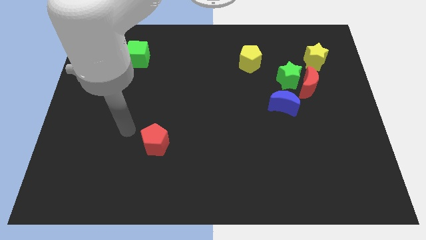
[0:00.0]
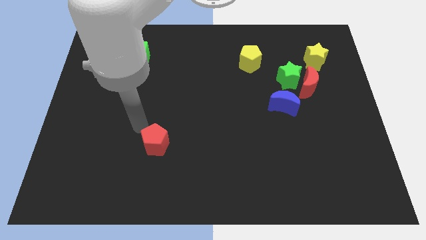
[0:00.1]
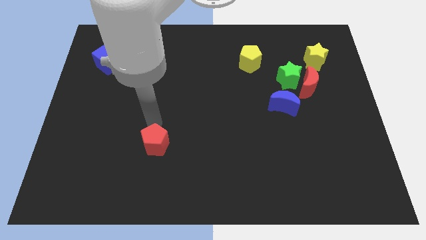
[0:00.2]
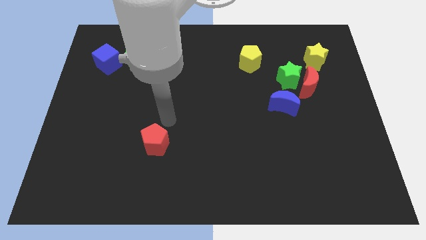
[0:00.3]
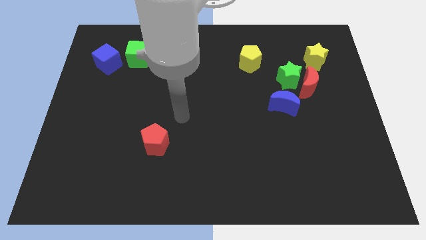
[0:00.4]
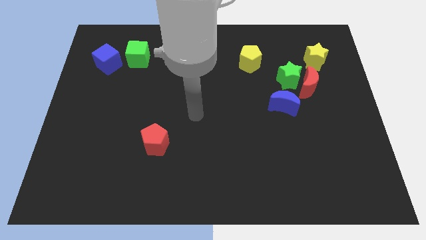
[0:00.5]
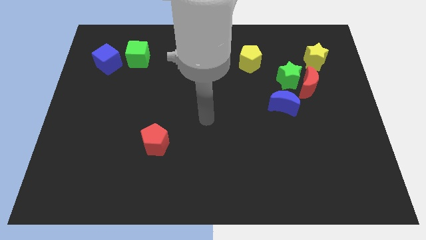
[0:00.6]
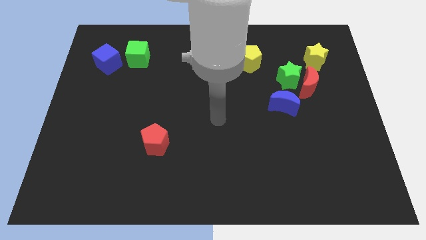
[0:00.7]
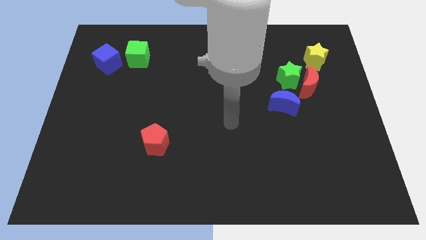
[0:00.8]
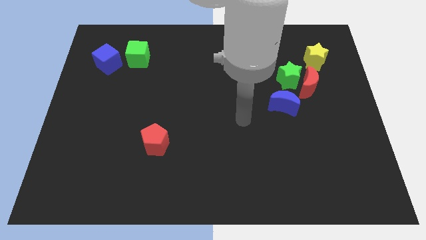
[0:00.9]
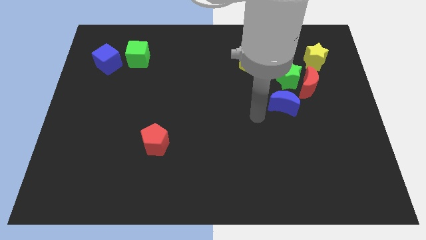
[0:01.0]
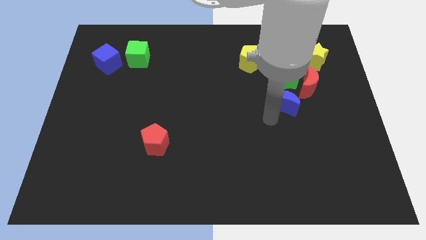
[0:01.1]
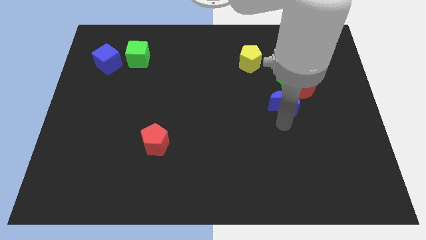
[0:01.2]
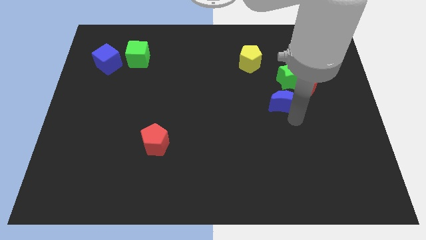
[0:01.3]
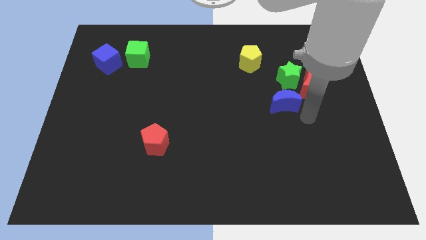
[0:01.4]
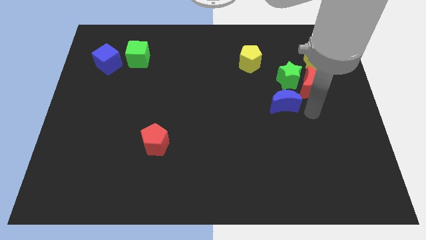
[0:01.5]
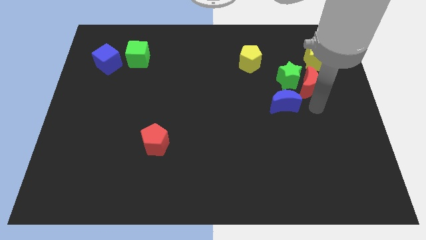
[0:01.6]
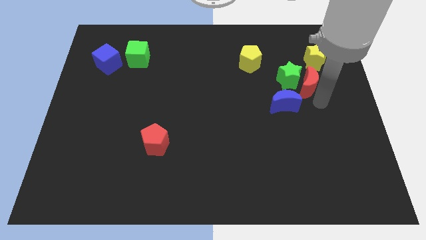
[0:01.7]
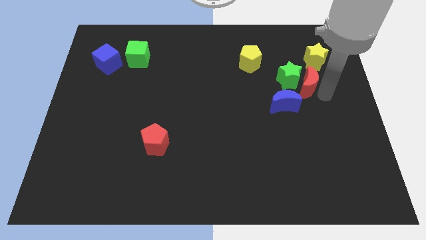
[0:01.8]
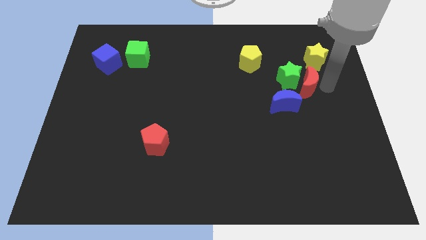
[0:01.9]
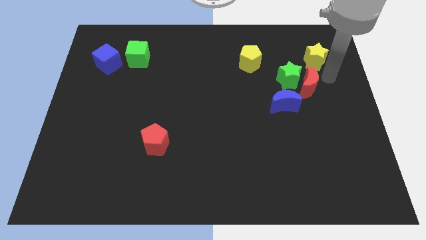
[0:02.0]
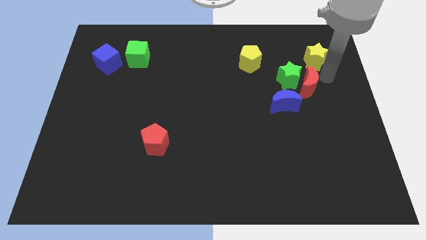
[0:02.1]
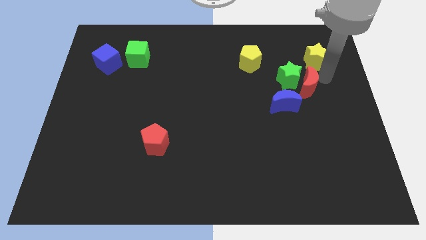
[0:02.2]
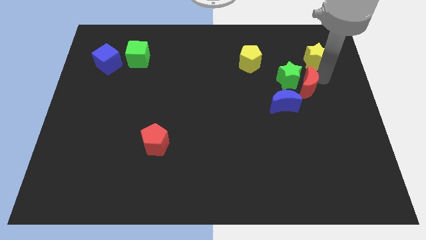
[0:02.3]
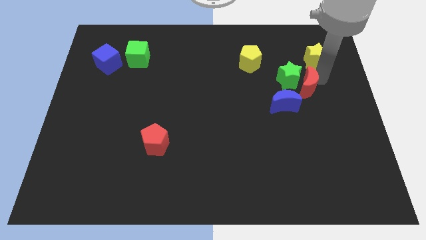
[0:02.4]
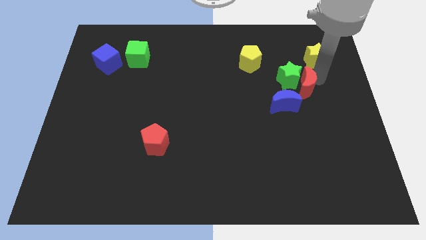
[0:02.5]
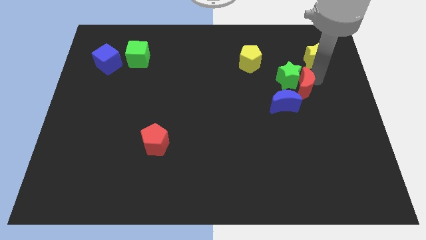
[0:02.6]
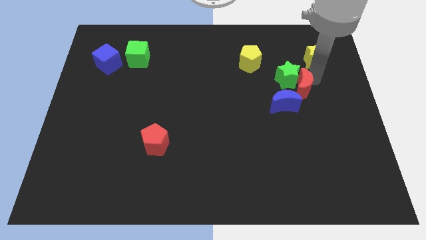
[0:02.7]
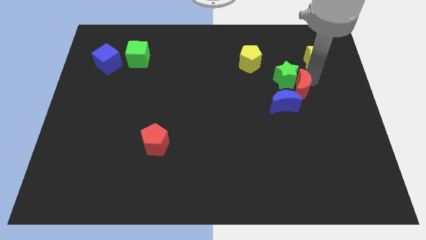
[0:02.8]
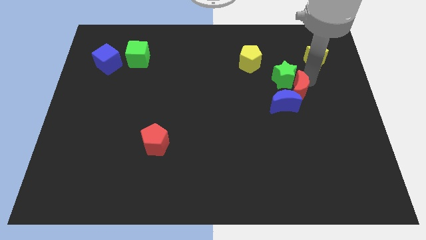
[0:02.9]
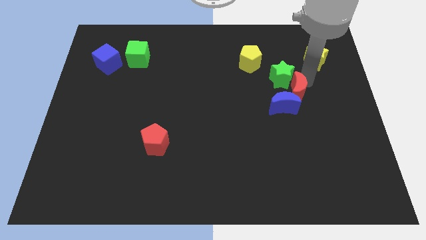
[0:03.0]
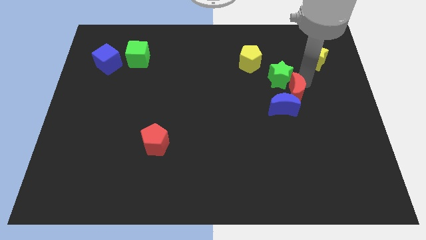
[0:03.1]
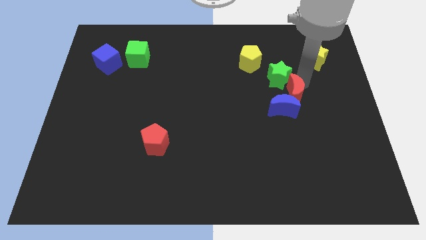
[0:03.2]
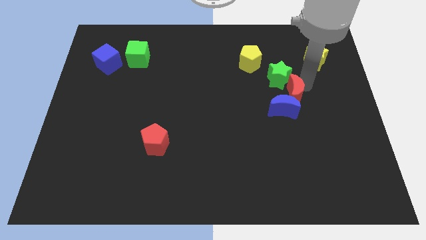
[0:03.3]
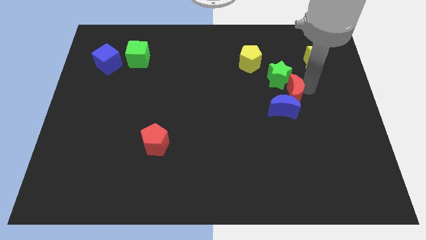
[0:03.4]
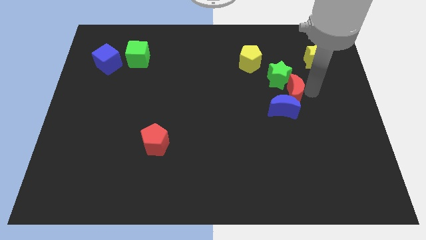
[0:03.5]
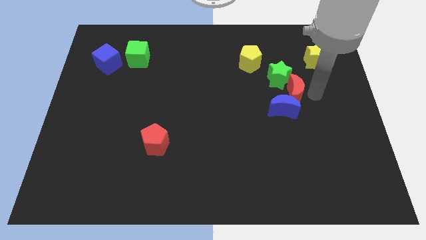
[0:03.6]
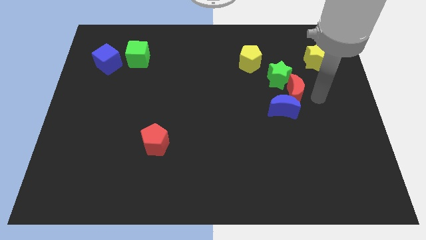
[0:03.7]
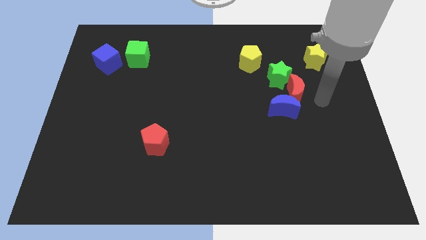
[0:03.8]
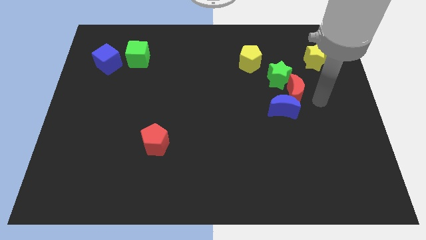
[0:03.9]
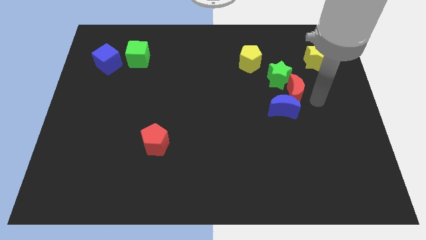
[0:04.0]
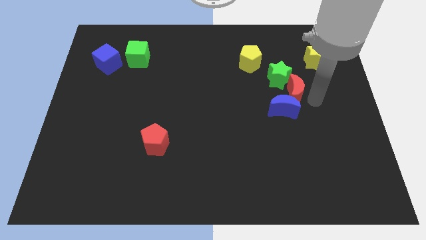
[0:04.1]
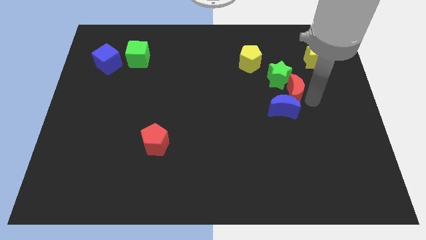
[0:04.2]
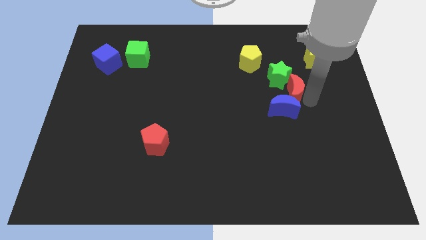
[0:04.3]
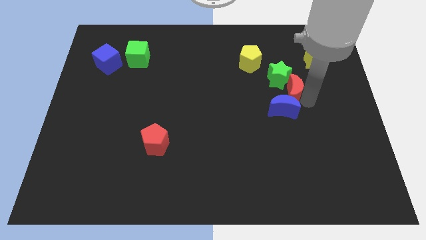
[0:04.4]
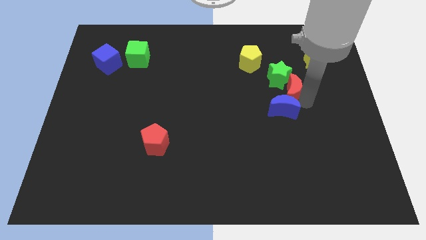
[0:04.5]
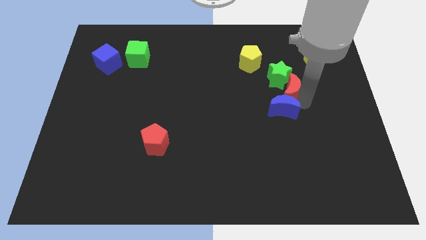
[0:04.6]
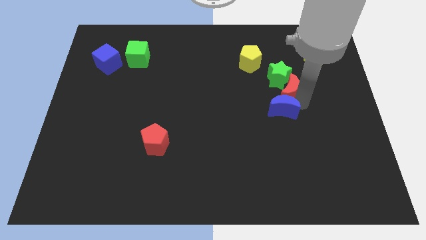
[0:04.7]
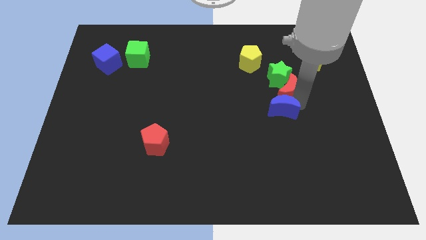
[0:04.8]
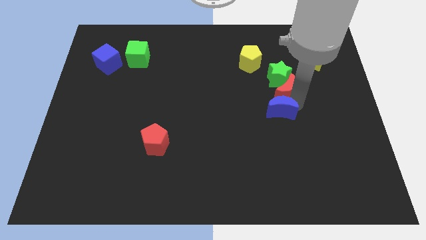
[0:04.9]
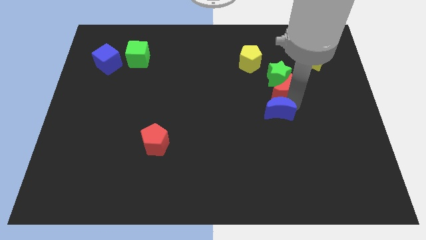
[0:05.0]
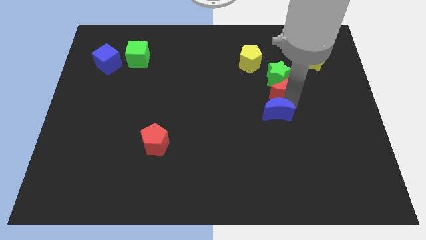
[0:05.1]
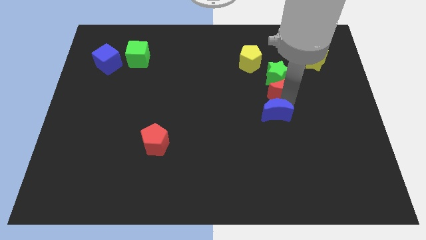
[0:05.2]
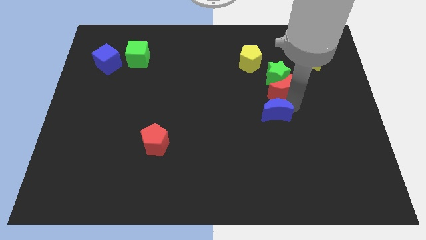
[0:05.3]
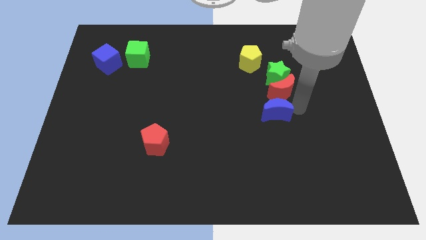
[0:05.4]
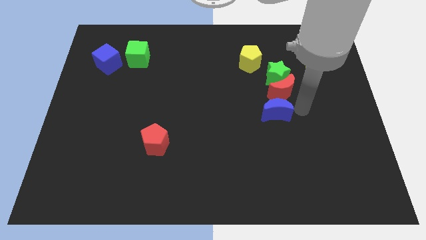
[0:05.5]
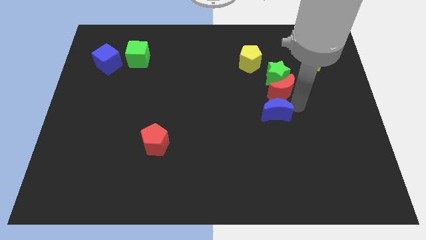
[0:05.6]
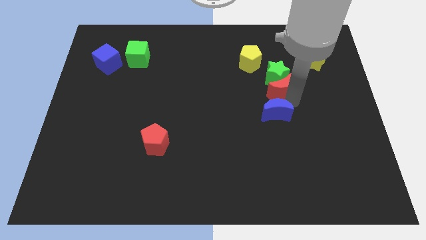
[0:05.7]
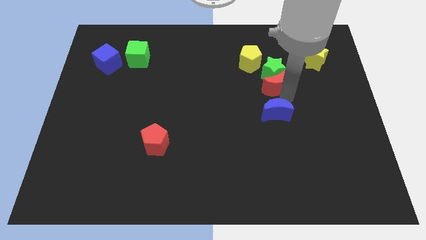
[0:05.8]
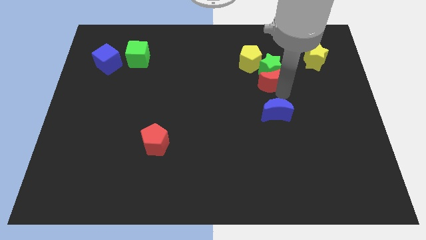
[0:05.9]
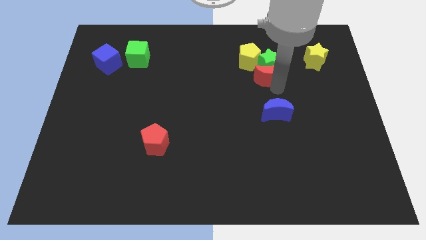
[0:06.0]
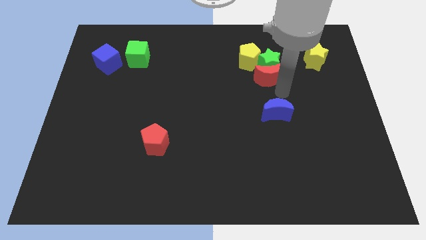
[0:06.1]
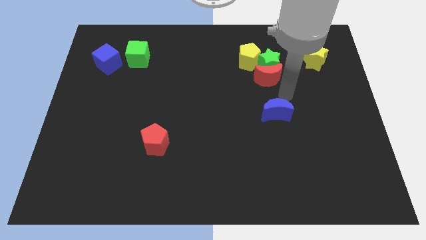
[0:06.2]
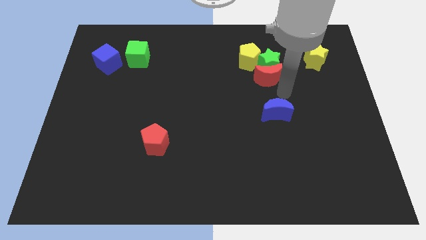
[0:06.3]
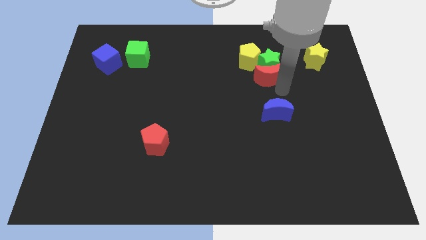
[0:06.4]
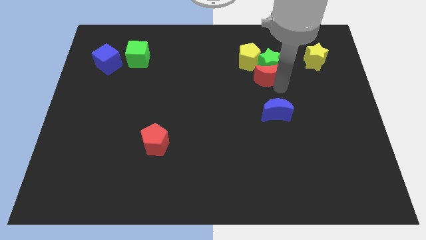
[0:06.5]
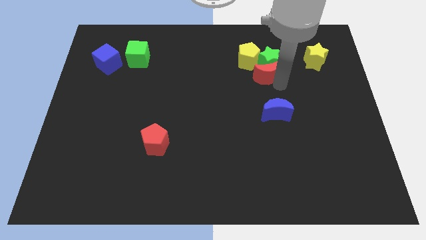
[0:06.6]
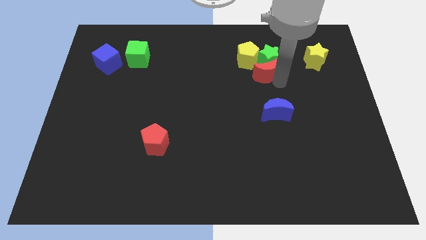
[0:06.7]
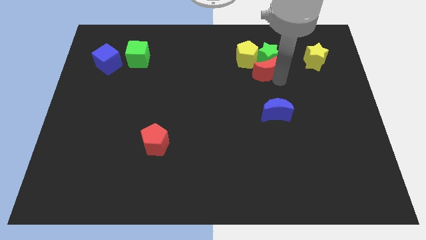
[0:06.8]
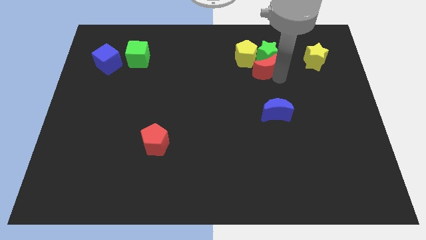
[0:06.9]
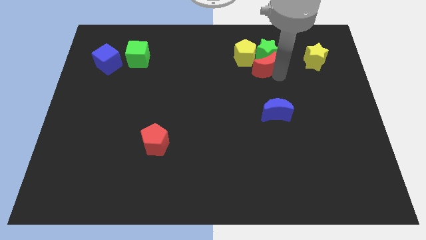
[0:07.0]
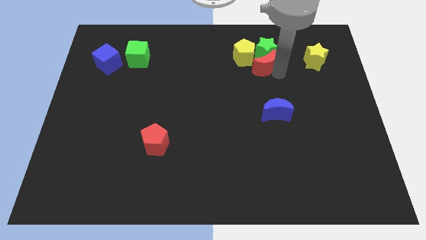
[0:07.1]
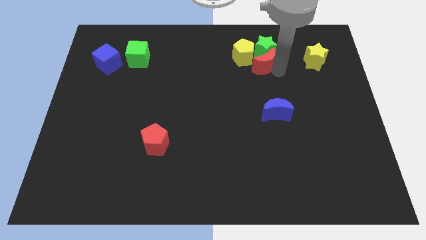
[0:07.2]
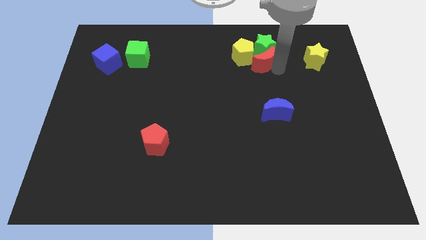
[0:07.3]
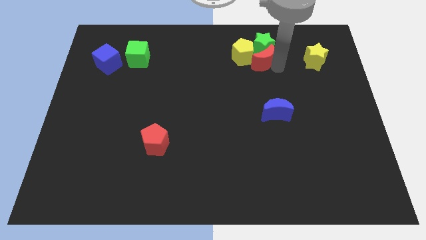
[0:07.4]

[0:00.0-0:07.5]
slide the red moon to the yellow pentagon

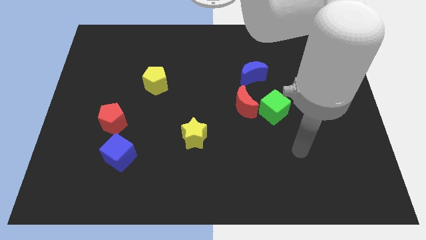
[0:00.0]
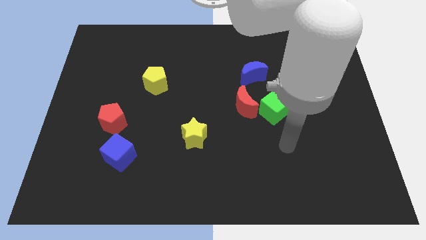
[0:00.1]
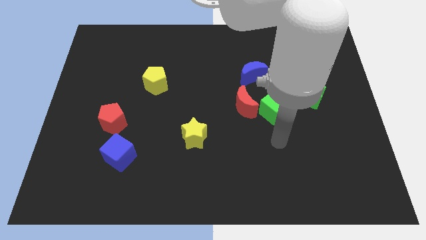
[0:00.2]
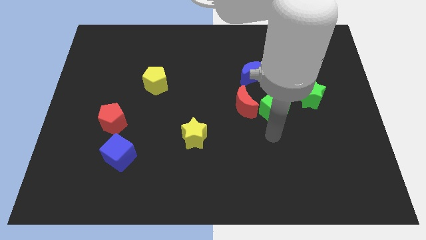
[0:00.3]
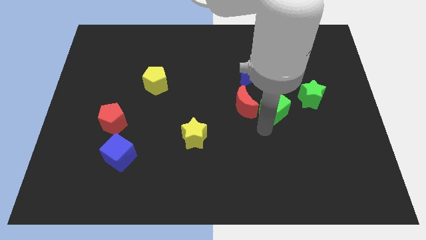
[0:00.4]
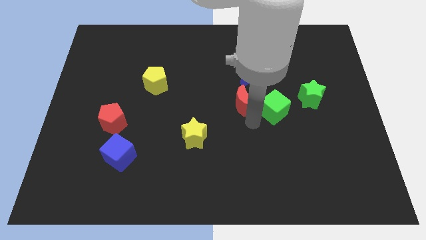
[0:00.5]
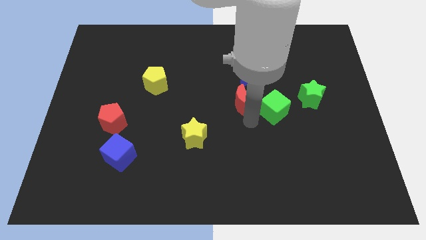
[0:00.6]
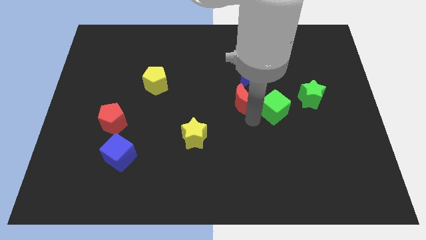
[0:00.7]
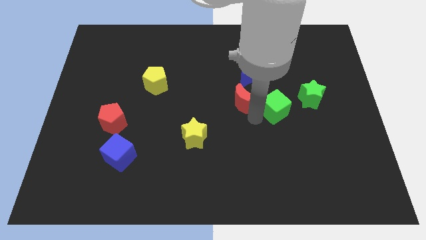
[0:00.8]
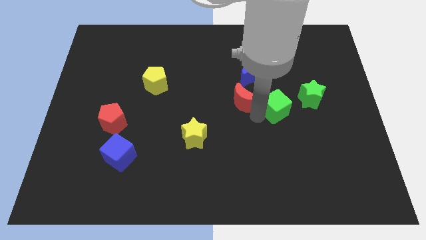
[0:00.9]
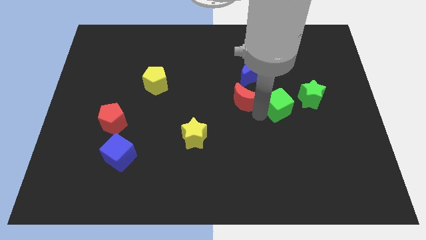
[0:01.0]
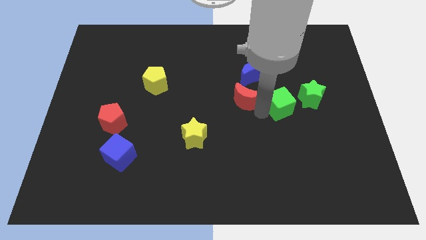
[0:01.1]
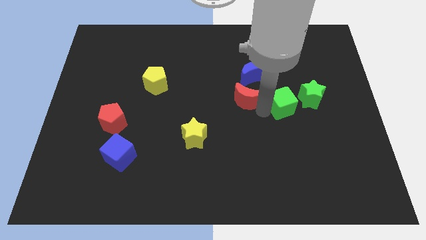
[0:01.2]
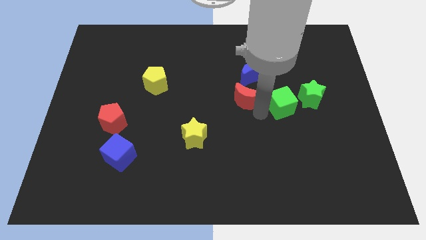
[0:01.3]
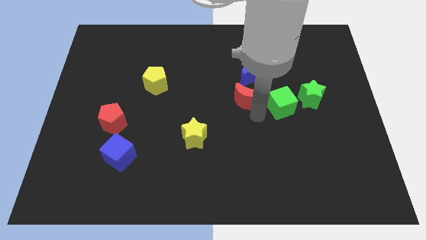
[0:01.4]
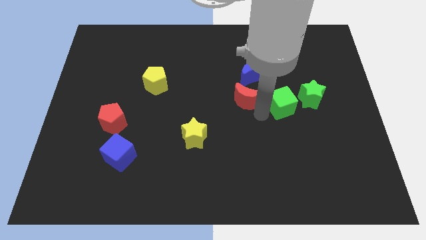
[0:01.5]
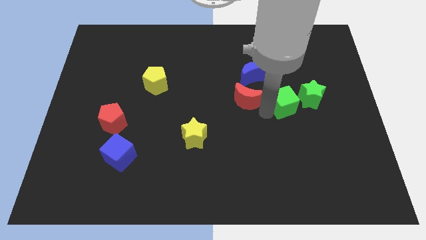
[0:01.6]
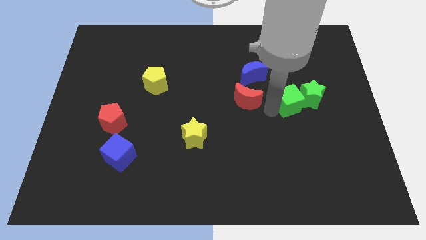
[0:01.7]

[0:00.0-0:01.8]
put the green cube next to the green star
